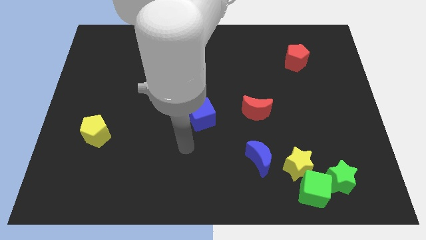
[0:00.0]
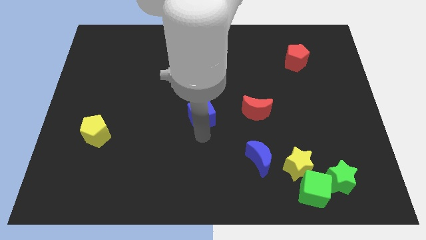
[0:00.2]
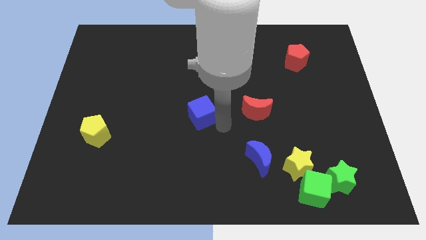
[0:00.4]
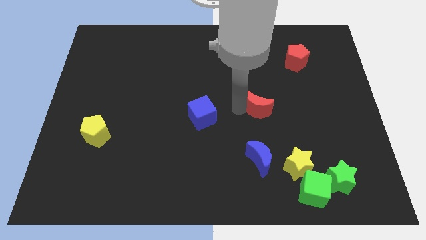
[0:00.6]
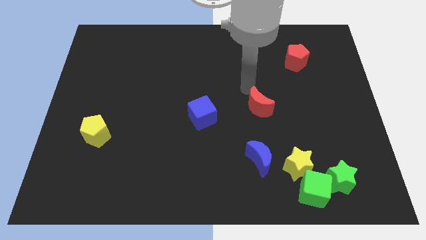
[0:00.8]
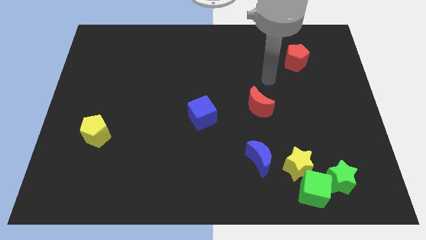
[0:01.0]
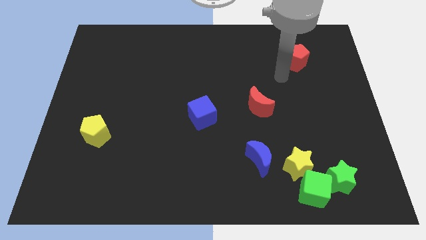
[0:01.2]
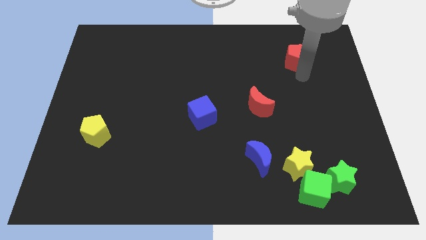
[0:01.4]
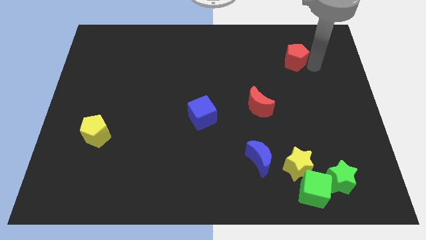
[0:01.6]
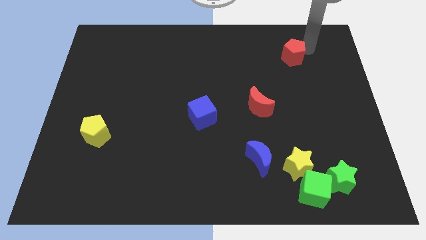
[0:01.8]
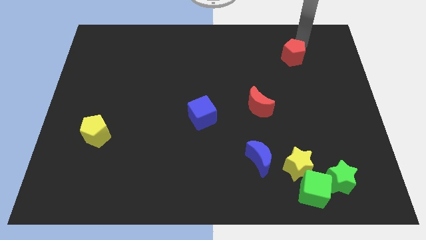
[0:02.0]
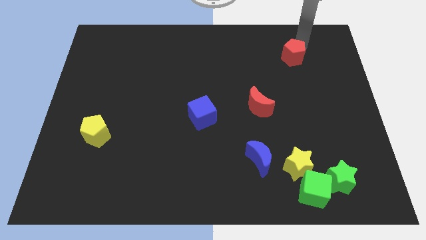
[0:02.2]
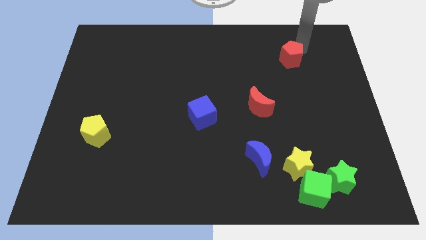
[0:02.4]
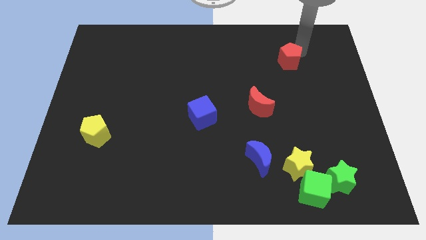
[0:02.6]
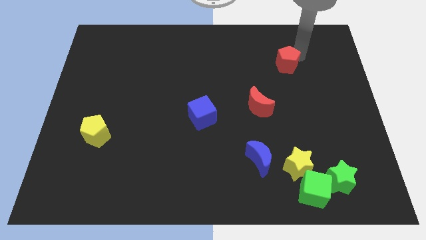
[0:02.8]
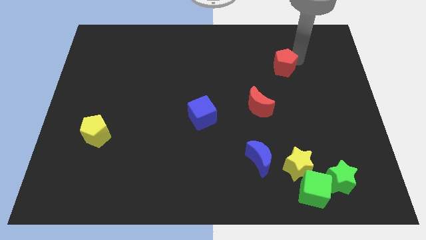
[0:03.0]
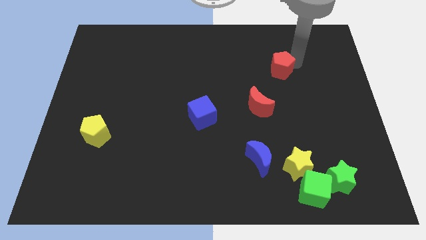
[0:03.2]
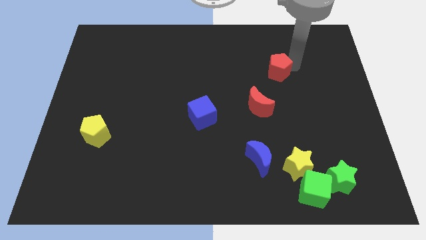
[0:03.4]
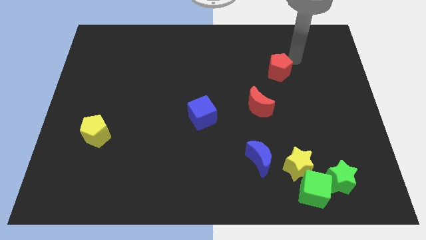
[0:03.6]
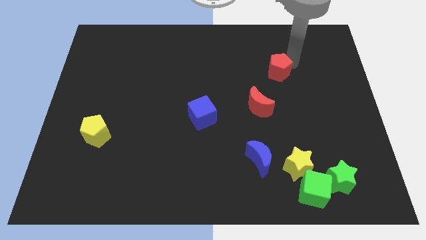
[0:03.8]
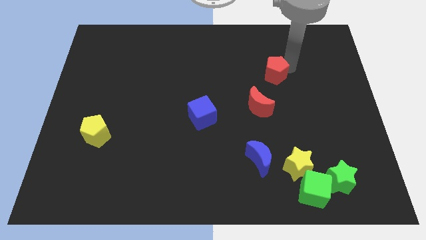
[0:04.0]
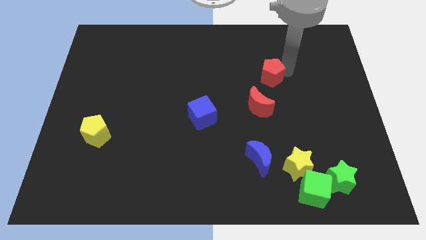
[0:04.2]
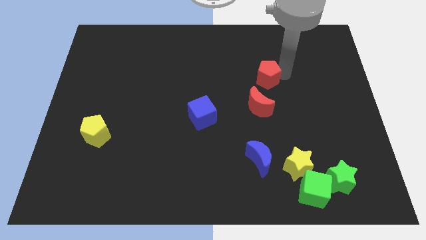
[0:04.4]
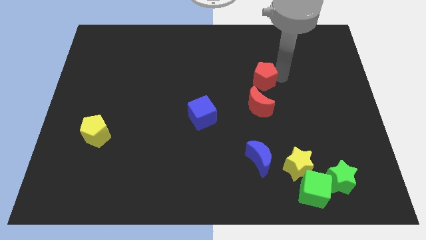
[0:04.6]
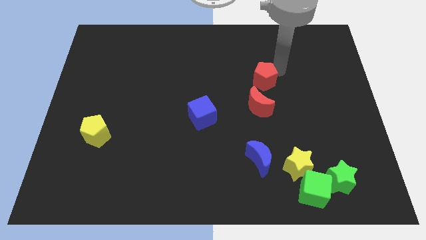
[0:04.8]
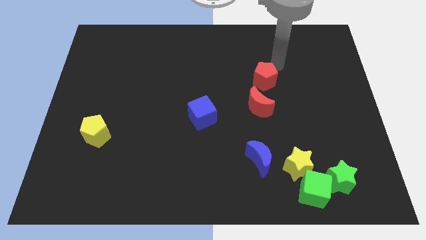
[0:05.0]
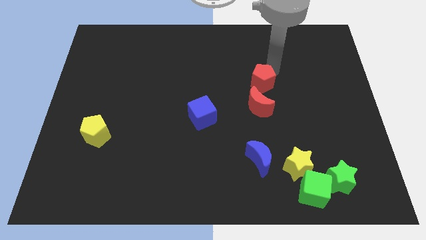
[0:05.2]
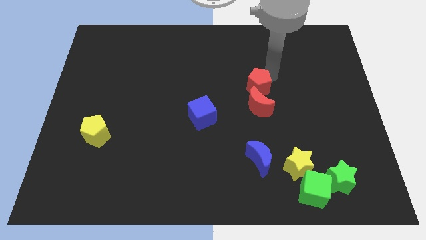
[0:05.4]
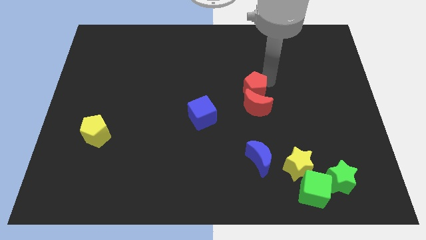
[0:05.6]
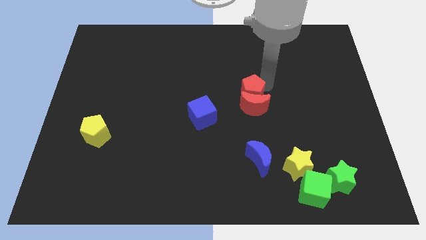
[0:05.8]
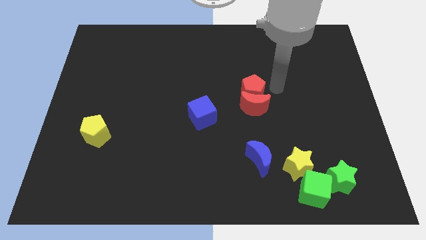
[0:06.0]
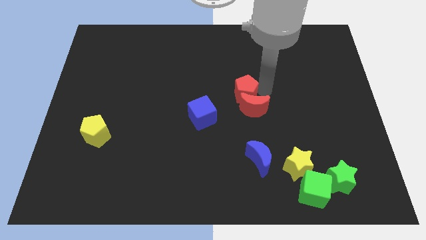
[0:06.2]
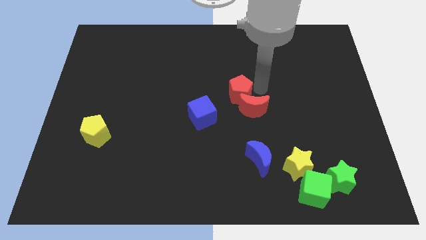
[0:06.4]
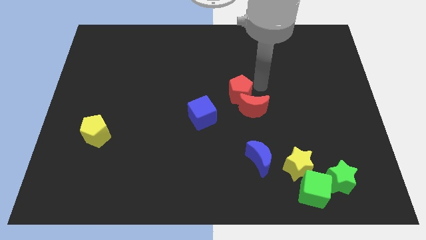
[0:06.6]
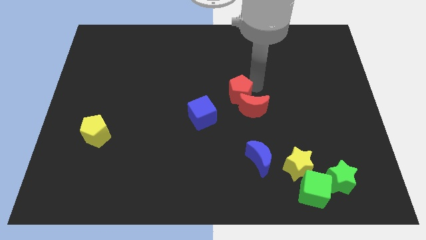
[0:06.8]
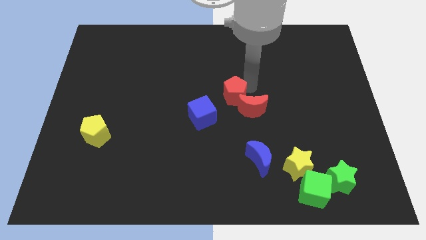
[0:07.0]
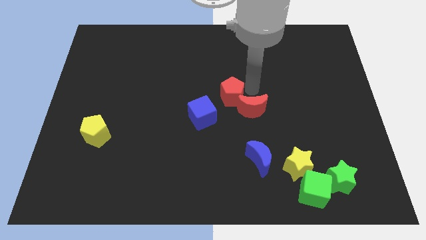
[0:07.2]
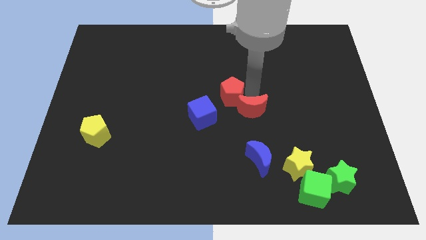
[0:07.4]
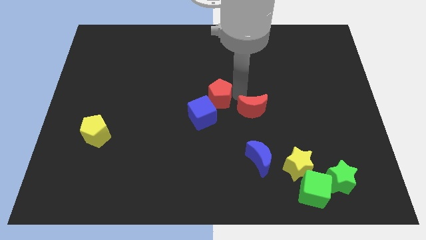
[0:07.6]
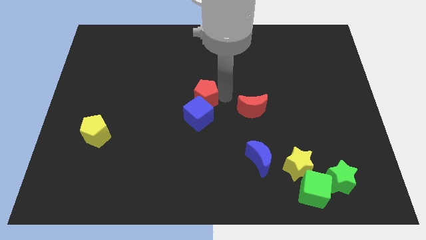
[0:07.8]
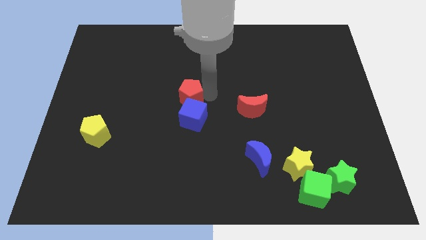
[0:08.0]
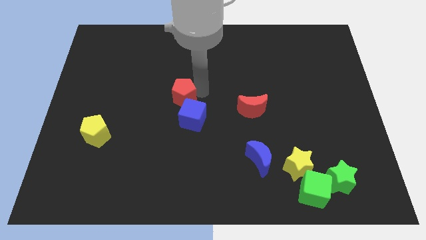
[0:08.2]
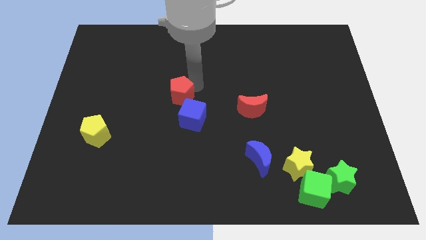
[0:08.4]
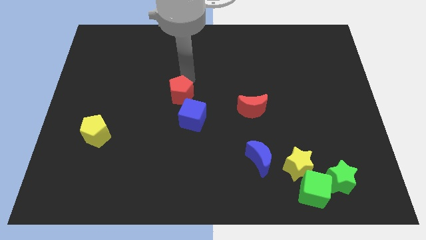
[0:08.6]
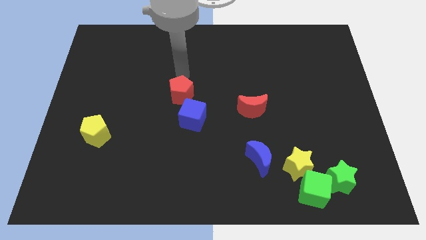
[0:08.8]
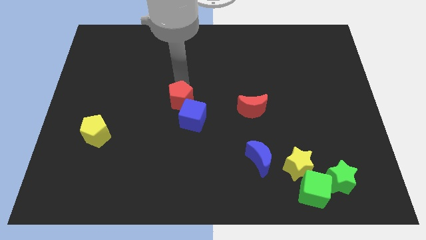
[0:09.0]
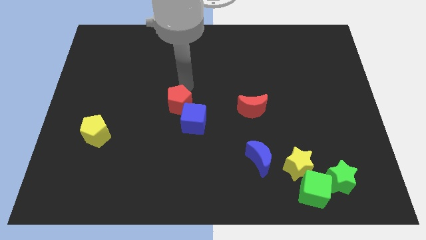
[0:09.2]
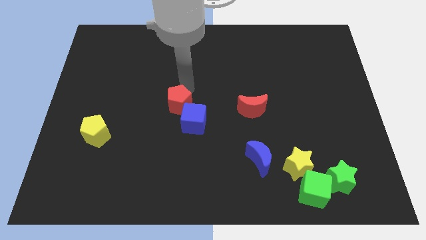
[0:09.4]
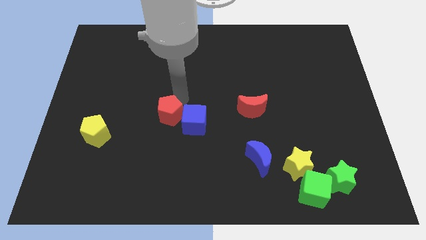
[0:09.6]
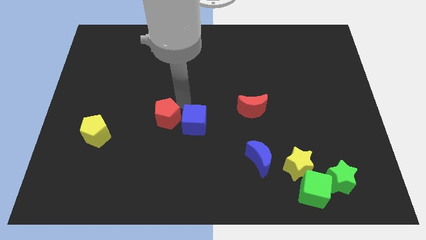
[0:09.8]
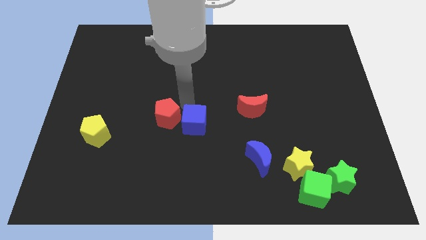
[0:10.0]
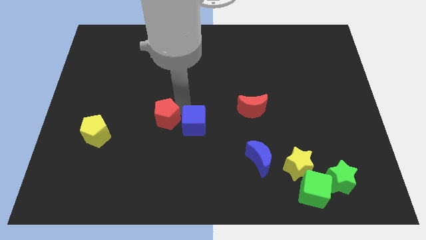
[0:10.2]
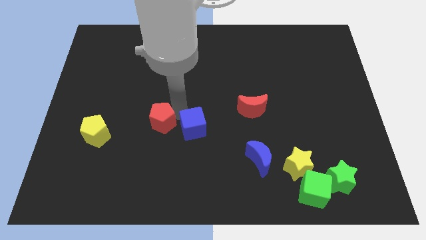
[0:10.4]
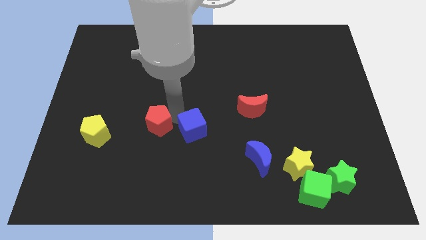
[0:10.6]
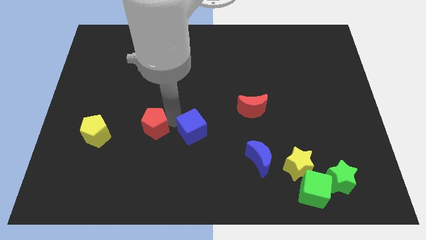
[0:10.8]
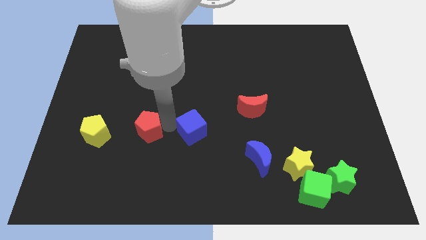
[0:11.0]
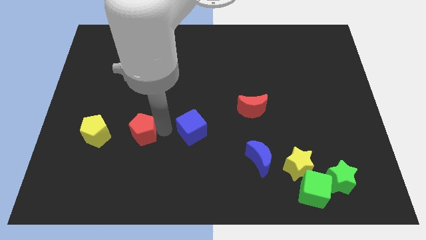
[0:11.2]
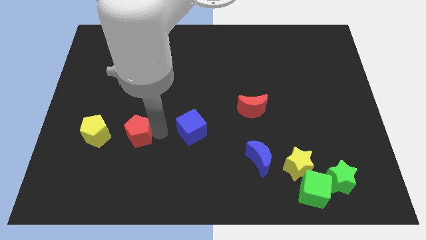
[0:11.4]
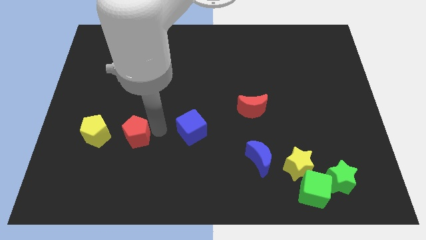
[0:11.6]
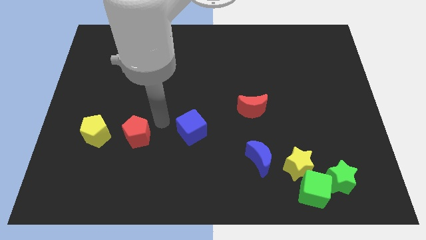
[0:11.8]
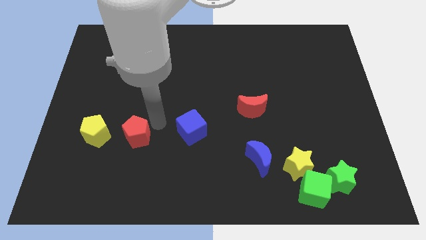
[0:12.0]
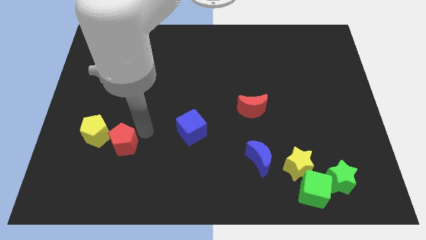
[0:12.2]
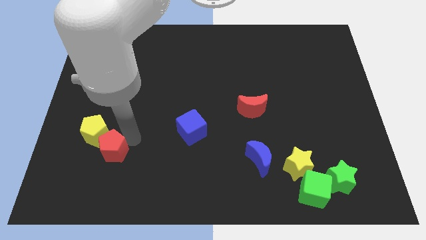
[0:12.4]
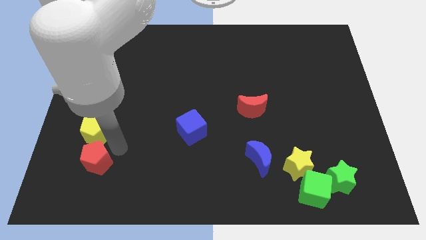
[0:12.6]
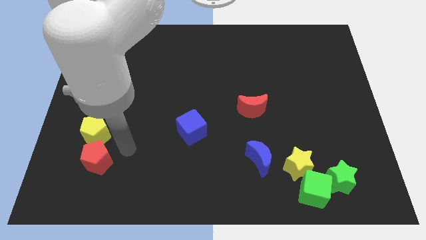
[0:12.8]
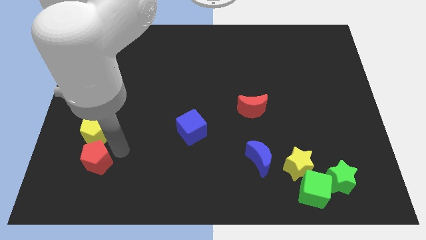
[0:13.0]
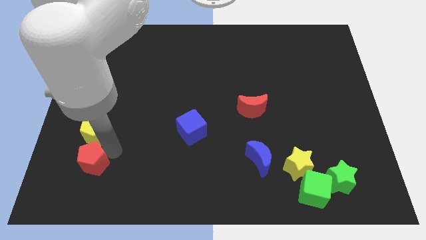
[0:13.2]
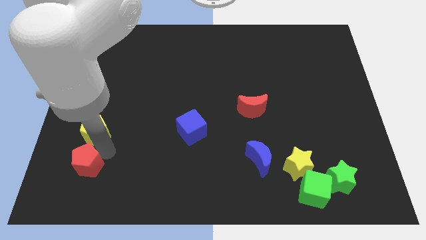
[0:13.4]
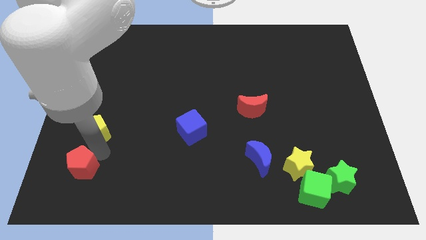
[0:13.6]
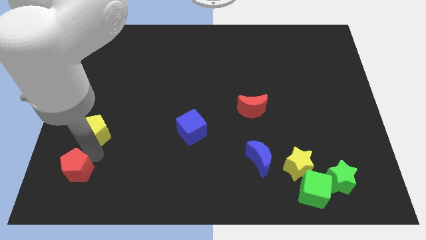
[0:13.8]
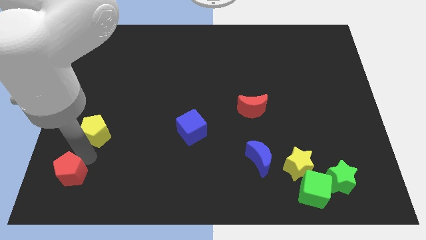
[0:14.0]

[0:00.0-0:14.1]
put the red pentagon to the bottom left corner
